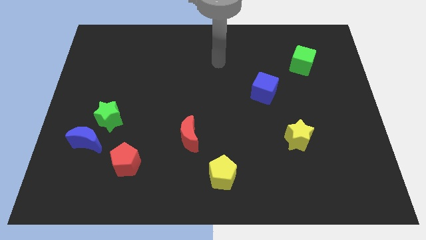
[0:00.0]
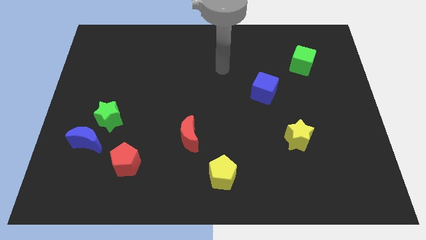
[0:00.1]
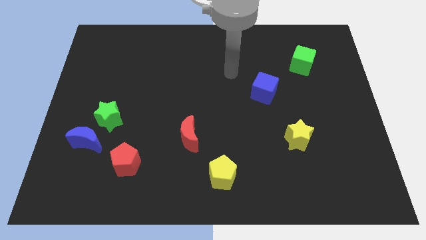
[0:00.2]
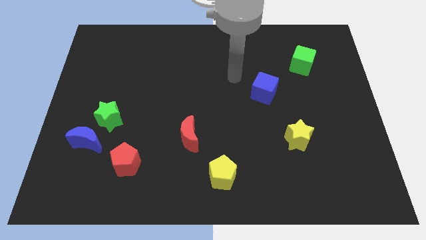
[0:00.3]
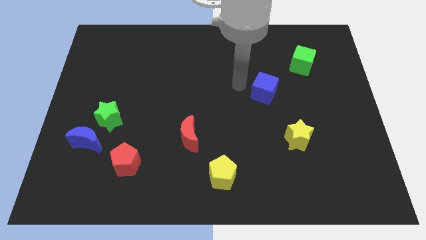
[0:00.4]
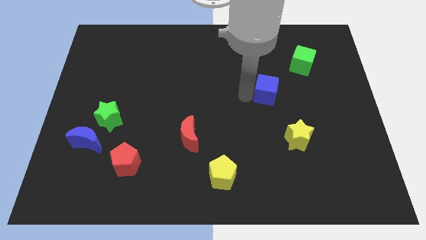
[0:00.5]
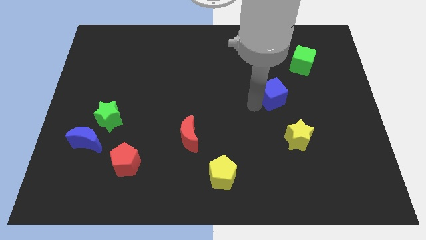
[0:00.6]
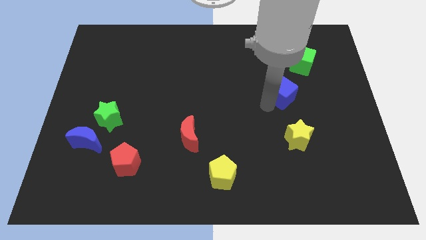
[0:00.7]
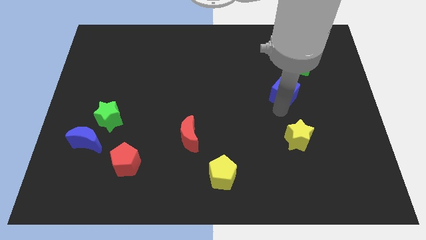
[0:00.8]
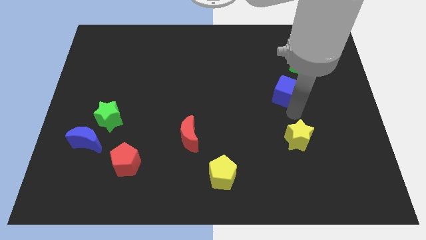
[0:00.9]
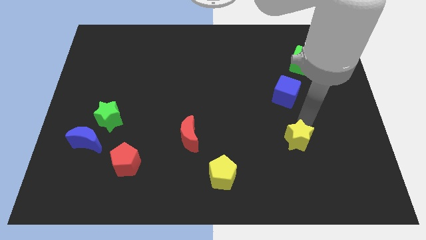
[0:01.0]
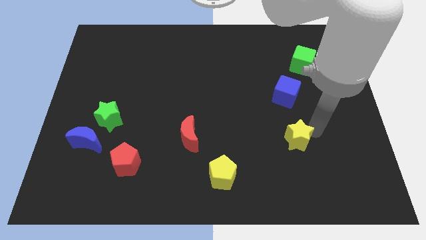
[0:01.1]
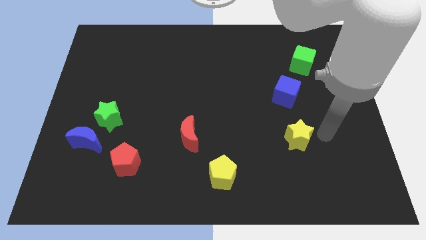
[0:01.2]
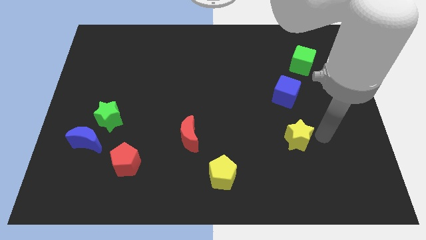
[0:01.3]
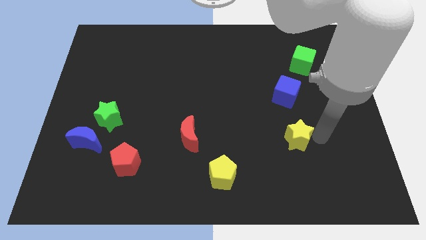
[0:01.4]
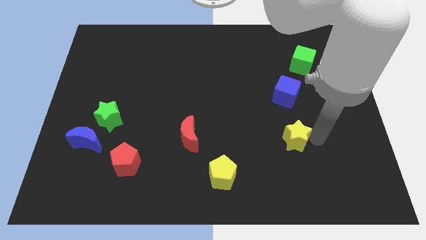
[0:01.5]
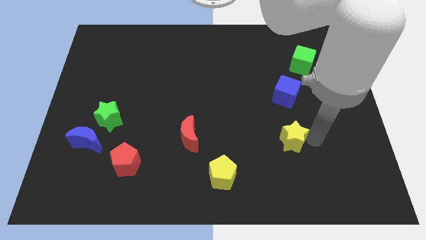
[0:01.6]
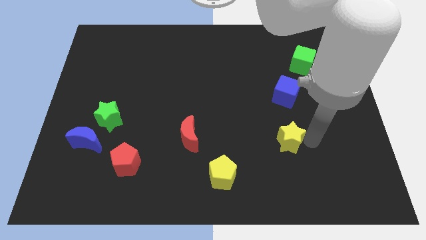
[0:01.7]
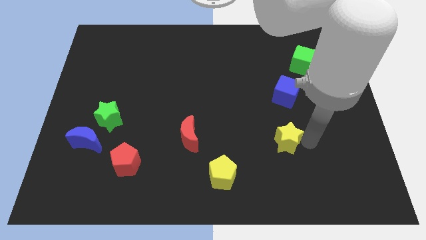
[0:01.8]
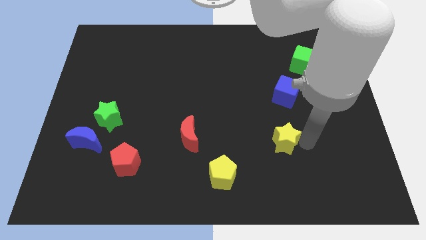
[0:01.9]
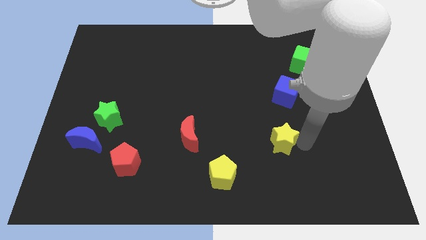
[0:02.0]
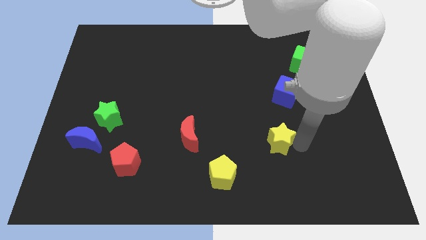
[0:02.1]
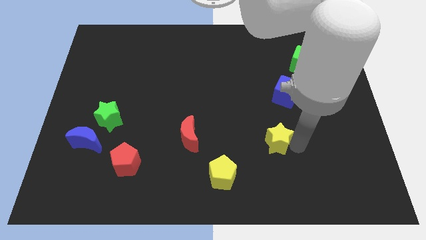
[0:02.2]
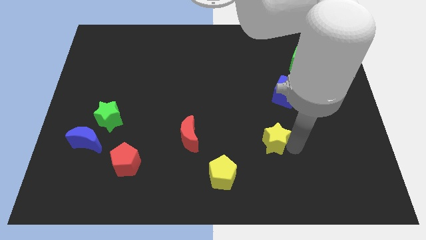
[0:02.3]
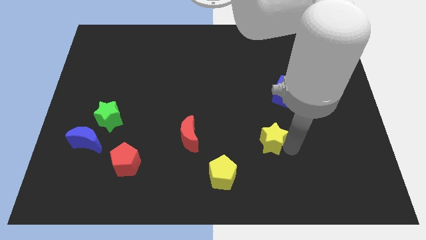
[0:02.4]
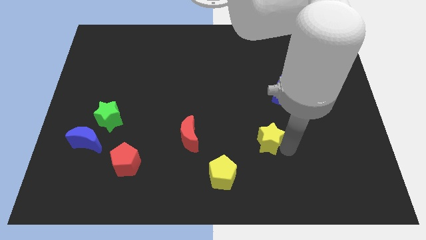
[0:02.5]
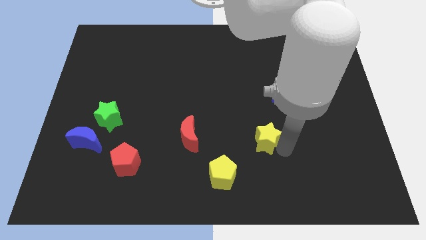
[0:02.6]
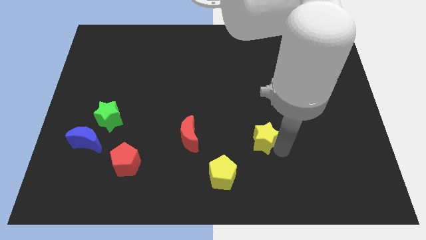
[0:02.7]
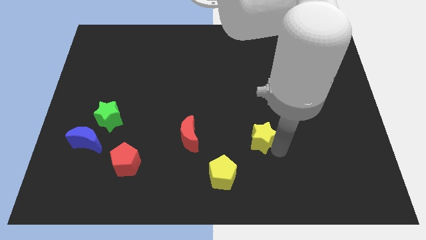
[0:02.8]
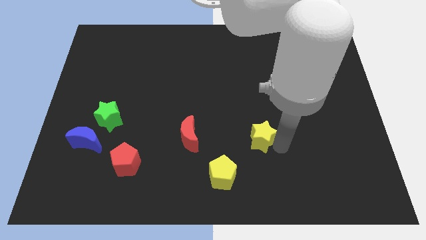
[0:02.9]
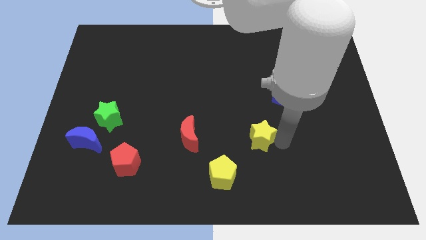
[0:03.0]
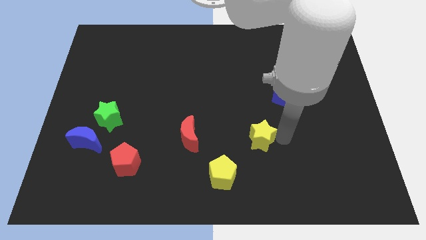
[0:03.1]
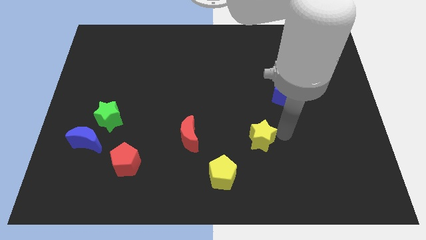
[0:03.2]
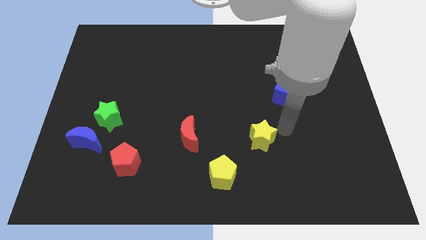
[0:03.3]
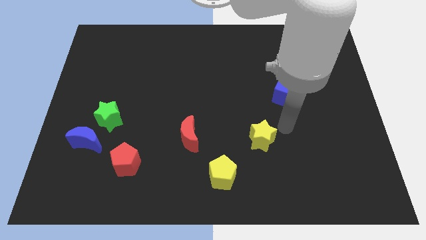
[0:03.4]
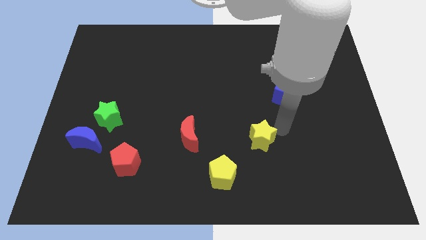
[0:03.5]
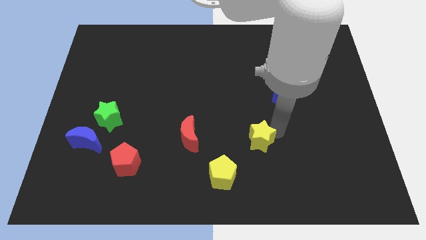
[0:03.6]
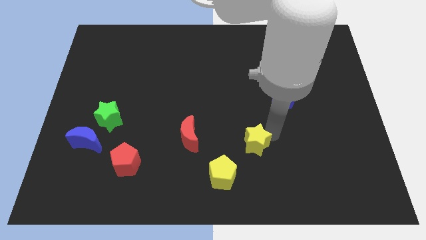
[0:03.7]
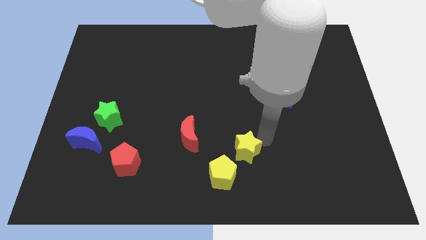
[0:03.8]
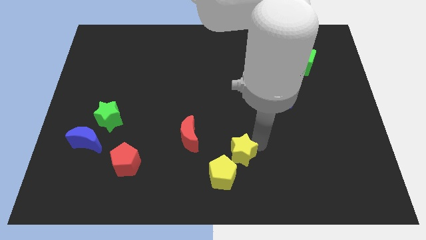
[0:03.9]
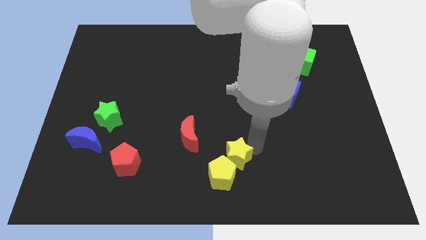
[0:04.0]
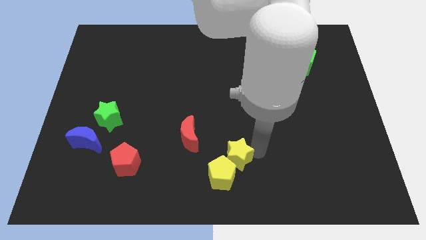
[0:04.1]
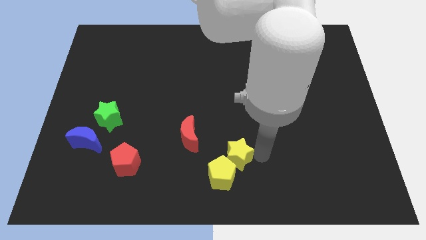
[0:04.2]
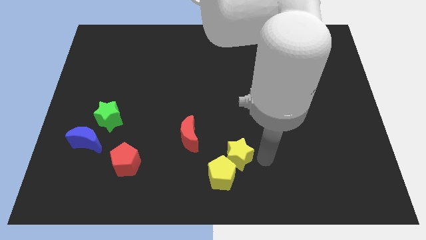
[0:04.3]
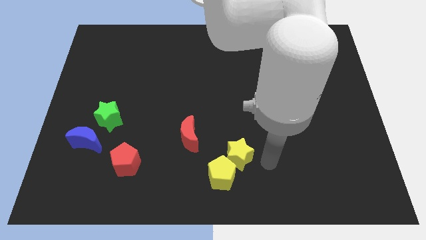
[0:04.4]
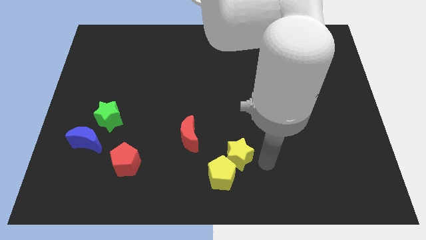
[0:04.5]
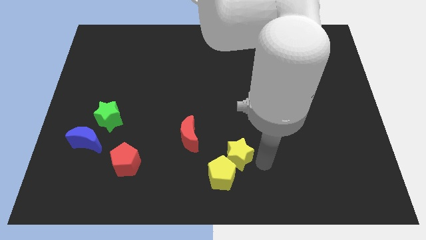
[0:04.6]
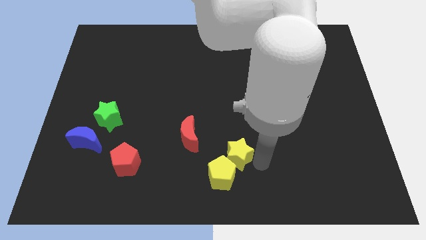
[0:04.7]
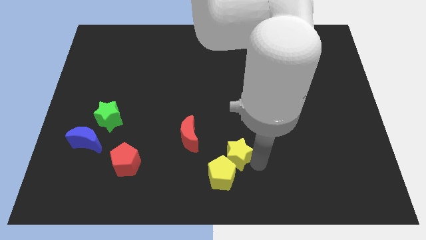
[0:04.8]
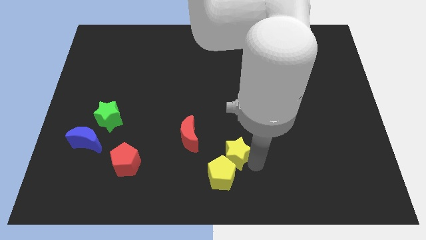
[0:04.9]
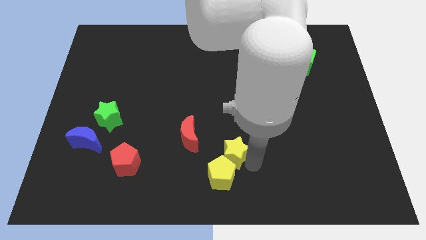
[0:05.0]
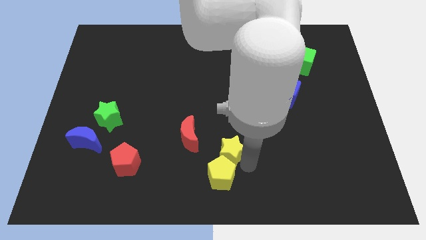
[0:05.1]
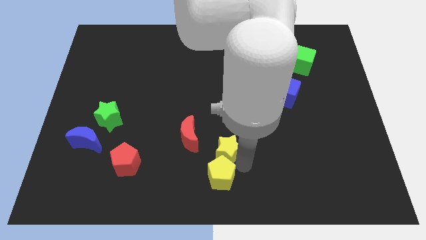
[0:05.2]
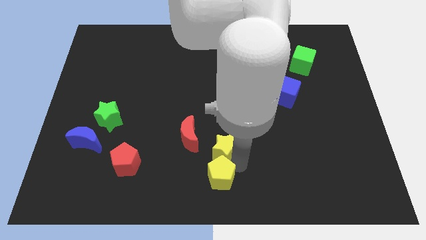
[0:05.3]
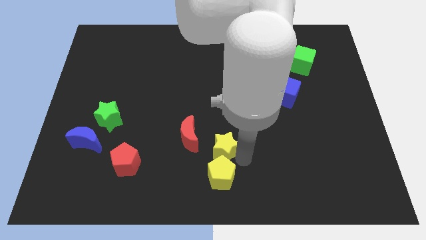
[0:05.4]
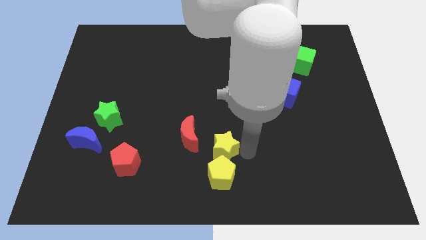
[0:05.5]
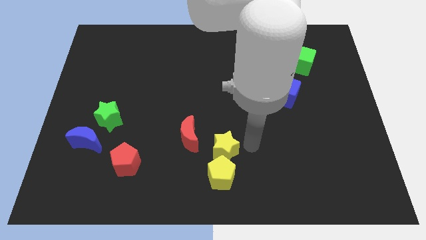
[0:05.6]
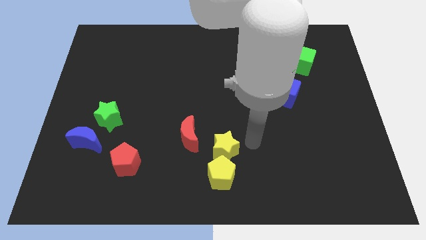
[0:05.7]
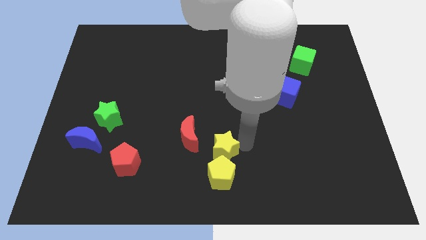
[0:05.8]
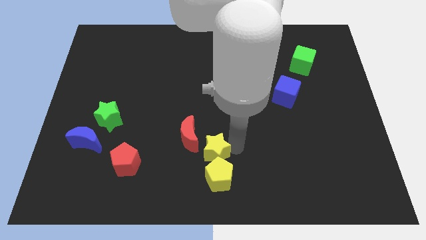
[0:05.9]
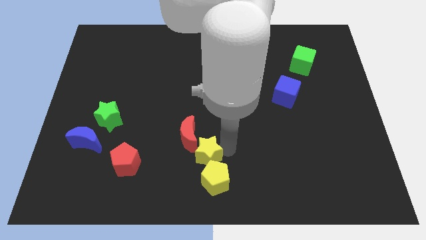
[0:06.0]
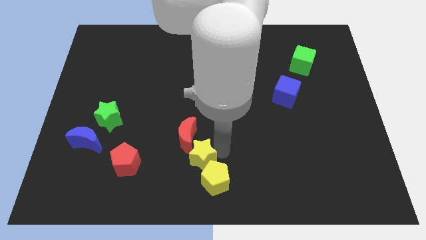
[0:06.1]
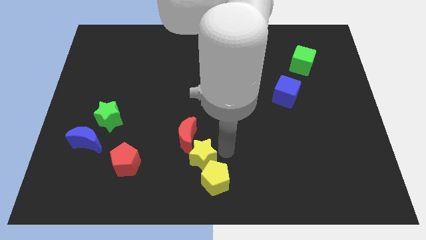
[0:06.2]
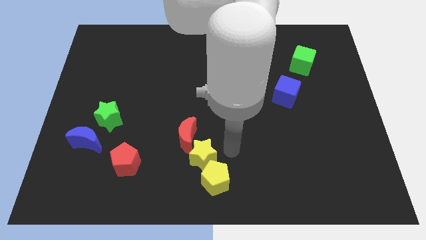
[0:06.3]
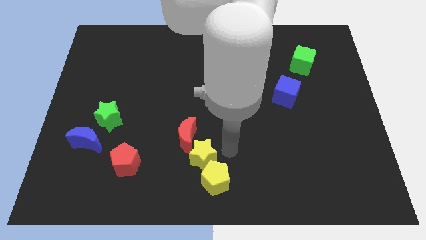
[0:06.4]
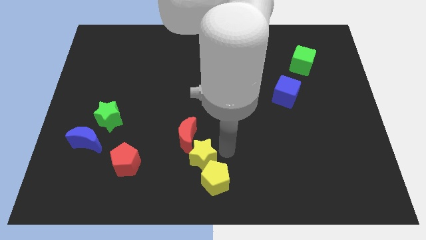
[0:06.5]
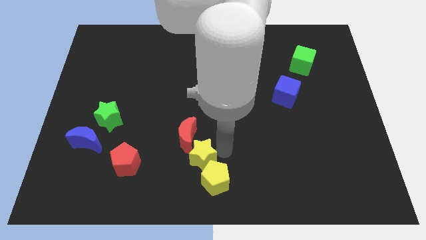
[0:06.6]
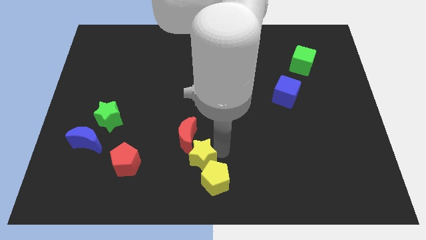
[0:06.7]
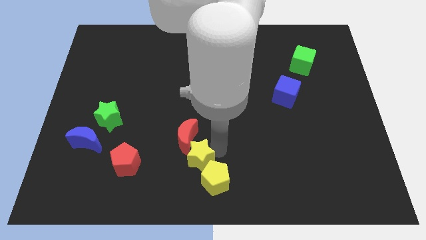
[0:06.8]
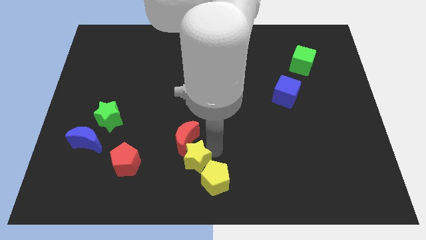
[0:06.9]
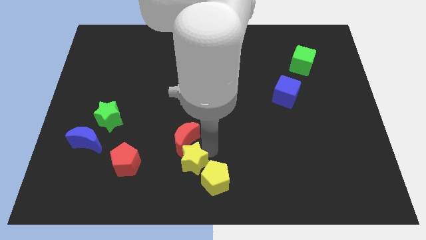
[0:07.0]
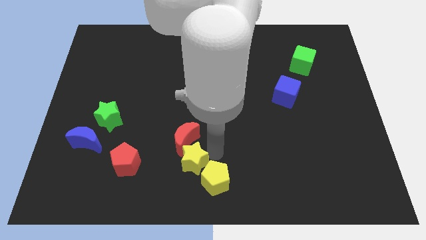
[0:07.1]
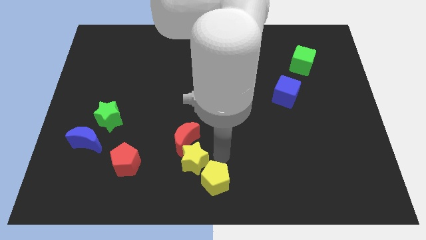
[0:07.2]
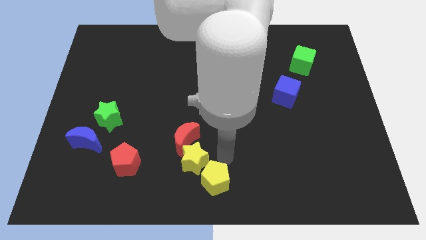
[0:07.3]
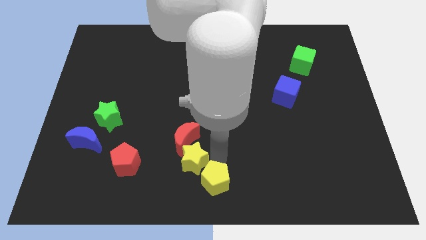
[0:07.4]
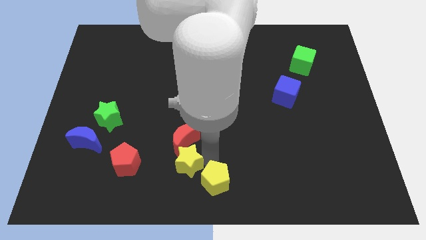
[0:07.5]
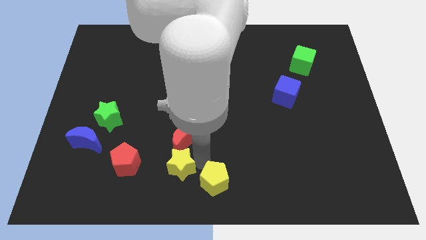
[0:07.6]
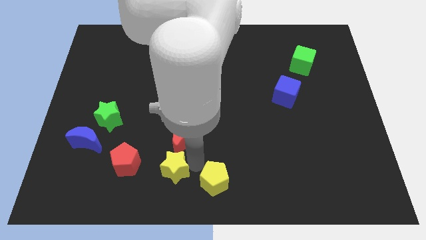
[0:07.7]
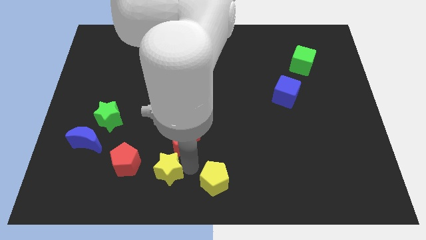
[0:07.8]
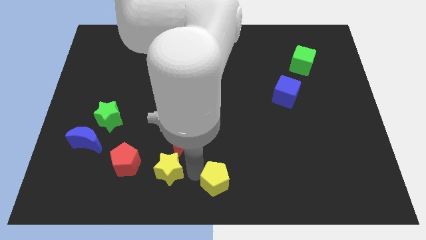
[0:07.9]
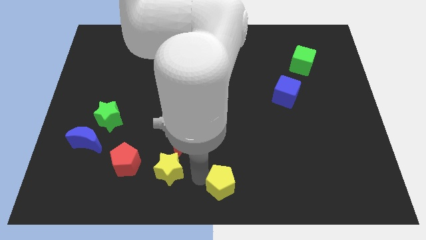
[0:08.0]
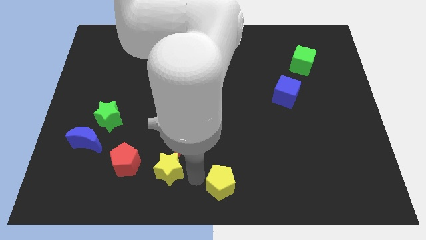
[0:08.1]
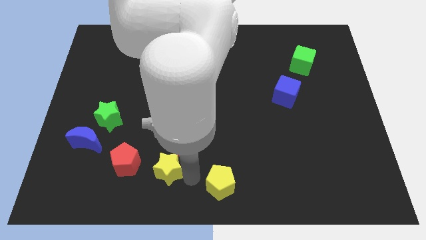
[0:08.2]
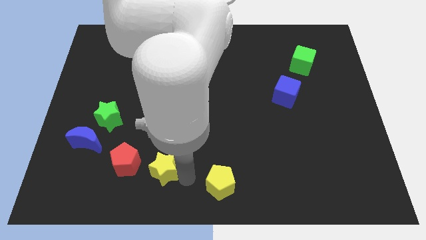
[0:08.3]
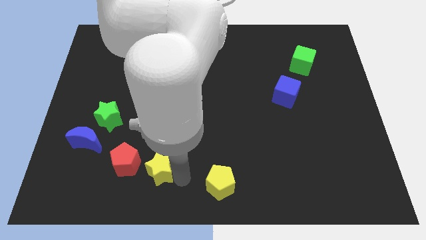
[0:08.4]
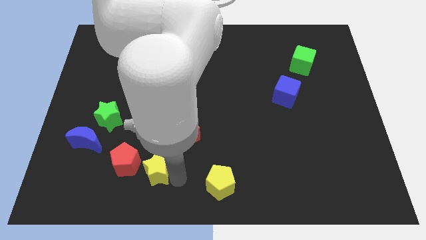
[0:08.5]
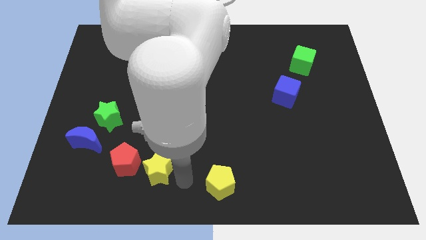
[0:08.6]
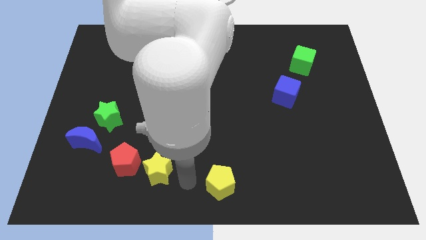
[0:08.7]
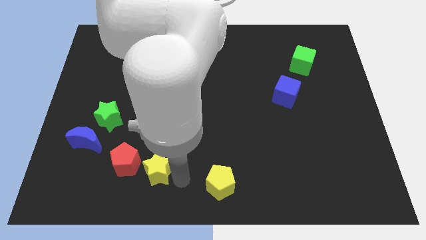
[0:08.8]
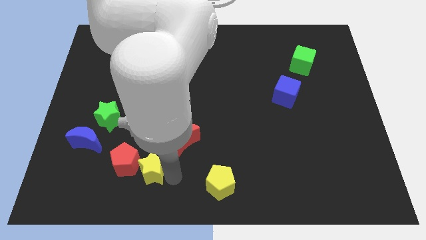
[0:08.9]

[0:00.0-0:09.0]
slide the yellow star to the red pentagon
